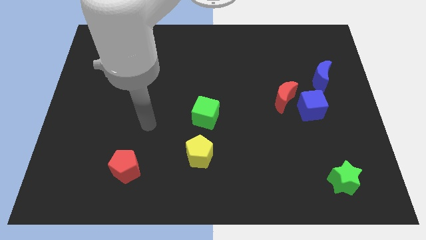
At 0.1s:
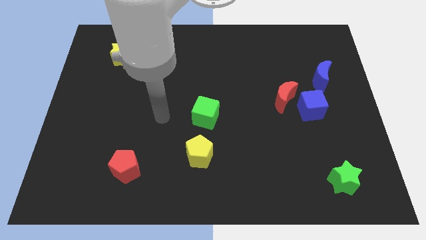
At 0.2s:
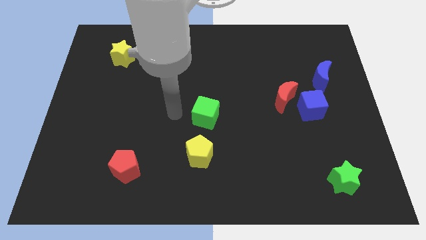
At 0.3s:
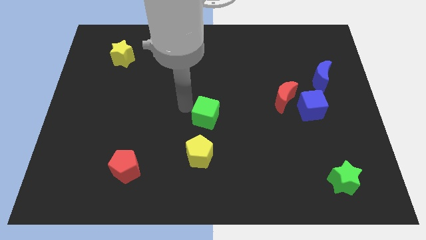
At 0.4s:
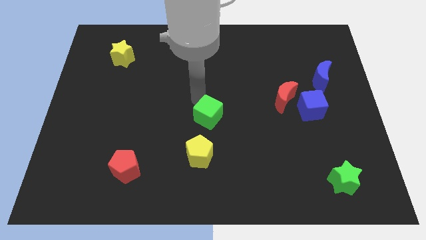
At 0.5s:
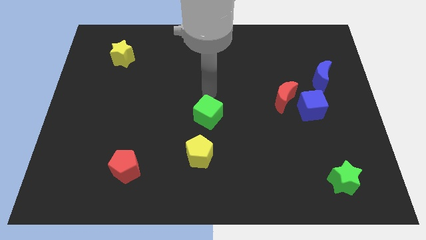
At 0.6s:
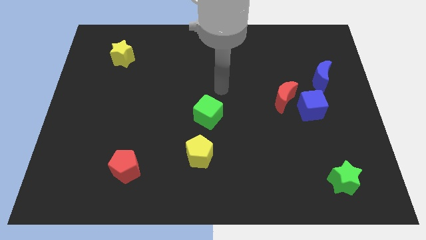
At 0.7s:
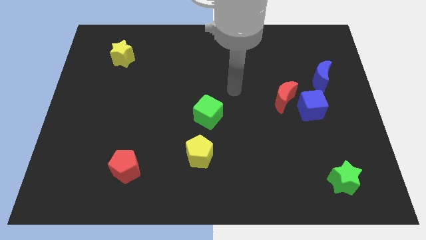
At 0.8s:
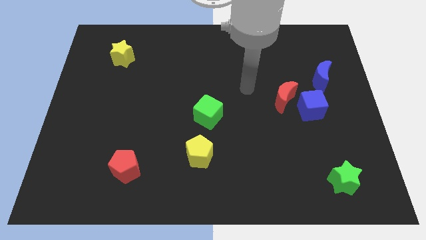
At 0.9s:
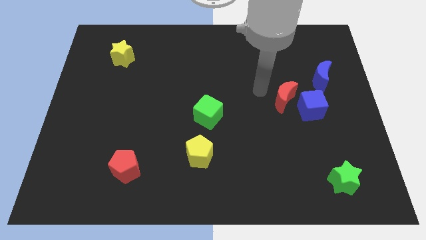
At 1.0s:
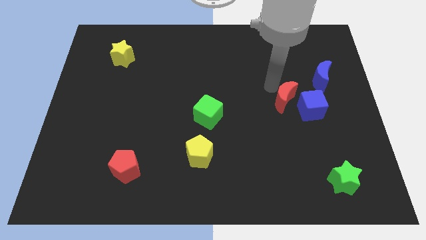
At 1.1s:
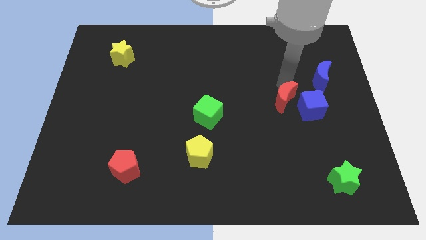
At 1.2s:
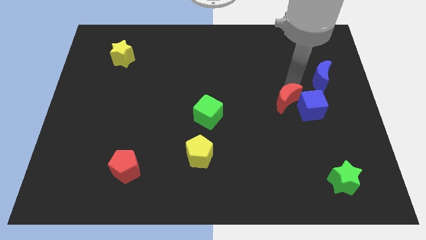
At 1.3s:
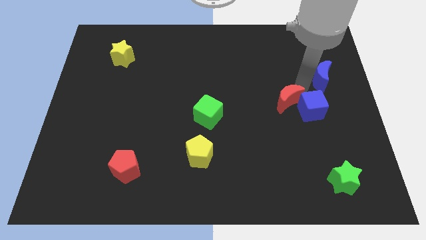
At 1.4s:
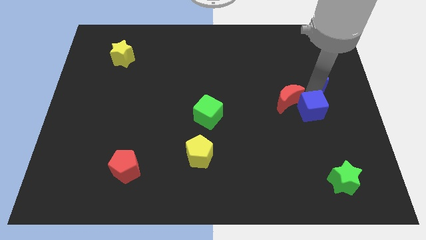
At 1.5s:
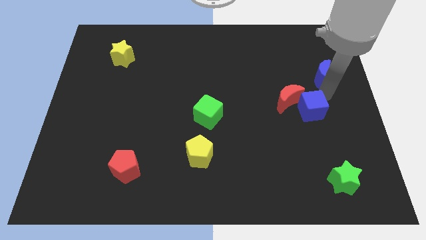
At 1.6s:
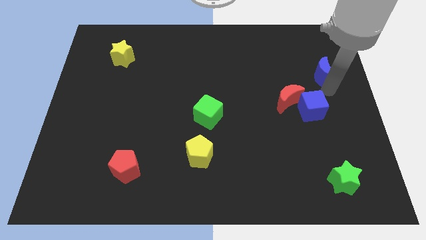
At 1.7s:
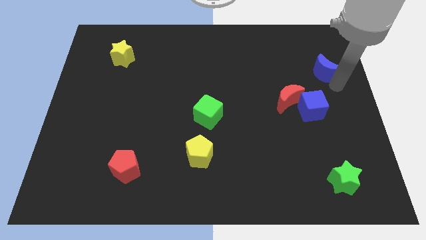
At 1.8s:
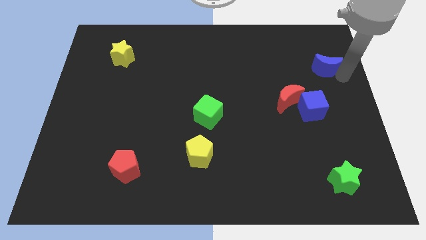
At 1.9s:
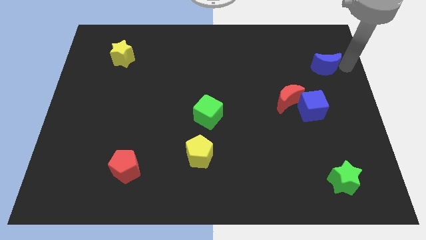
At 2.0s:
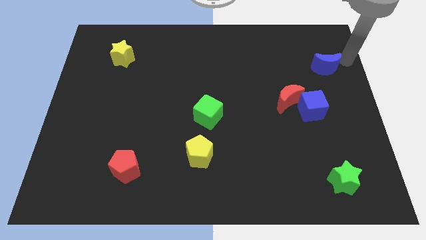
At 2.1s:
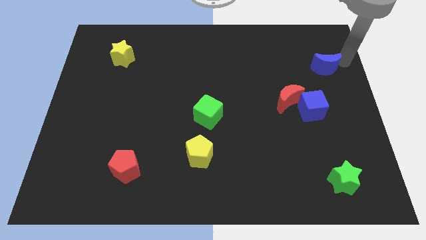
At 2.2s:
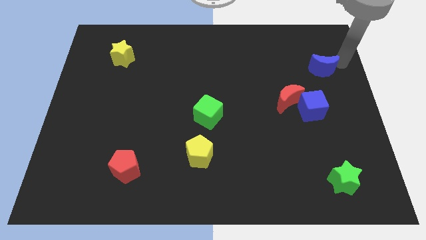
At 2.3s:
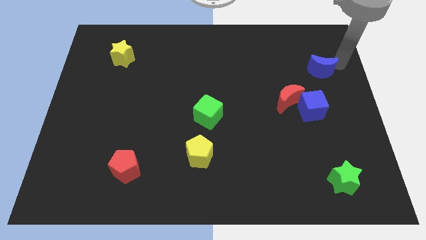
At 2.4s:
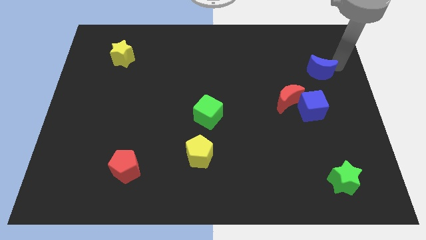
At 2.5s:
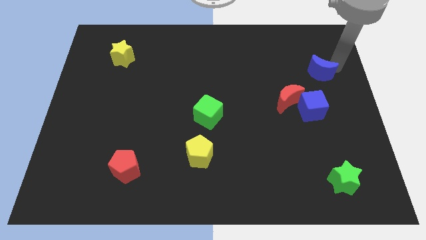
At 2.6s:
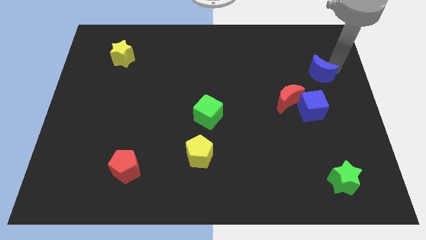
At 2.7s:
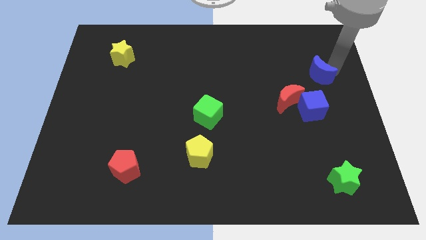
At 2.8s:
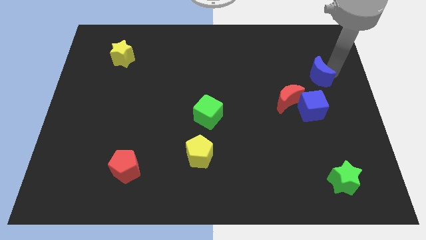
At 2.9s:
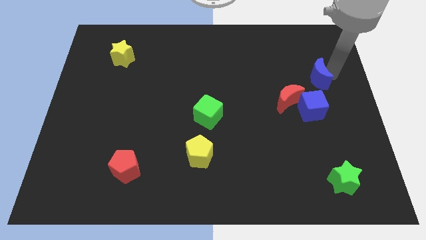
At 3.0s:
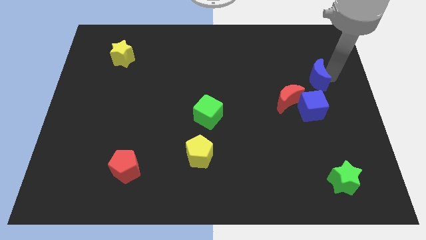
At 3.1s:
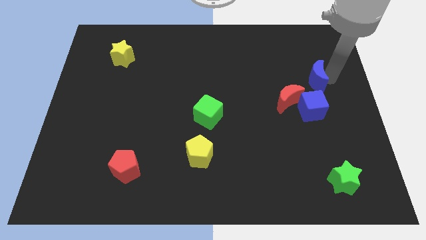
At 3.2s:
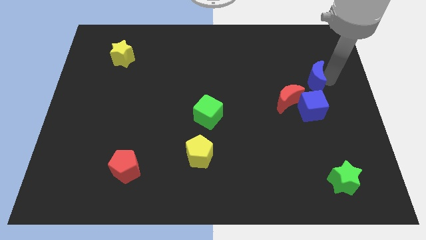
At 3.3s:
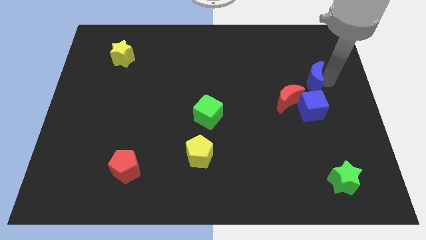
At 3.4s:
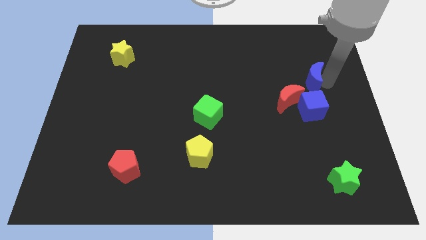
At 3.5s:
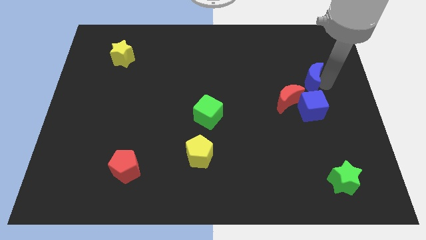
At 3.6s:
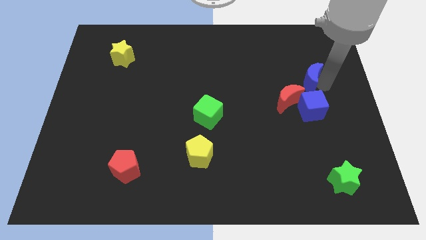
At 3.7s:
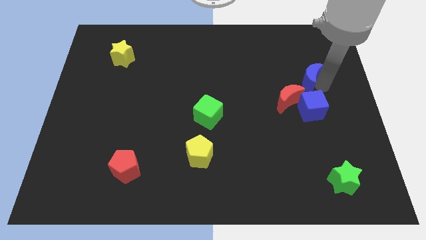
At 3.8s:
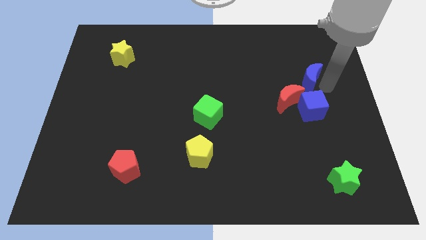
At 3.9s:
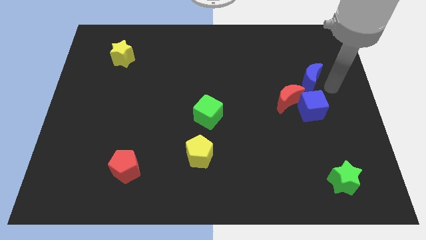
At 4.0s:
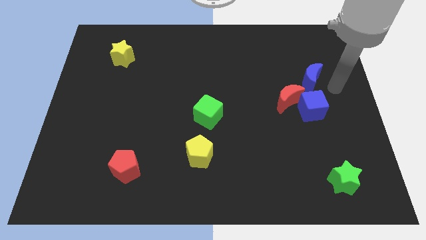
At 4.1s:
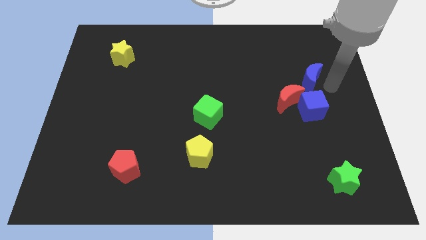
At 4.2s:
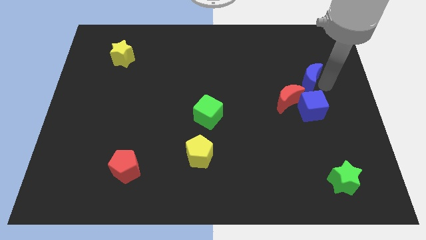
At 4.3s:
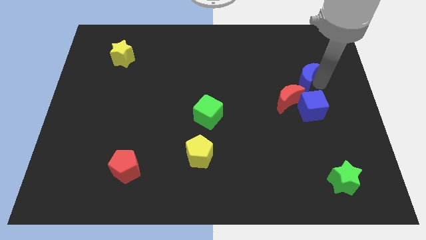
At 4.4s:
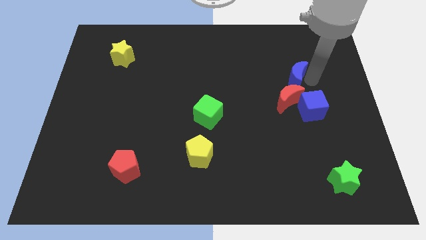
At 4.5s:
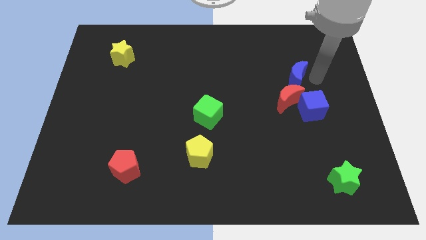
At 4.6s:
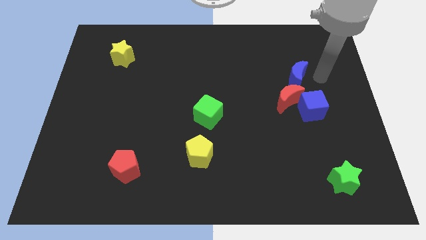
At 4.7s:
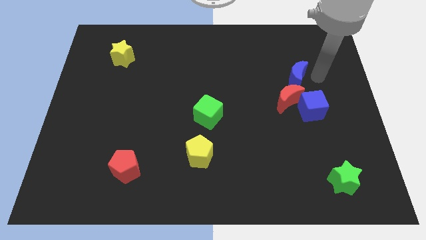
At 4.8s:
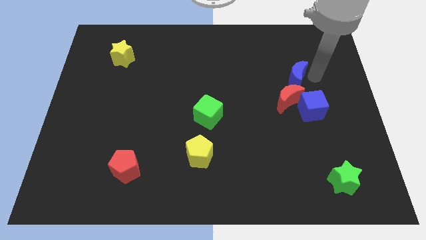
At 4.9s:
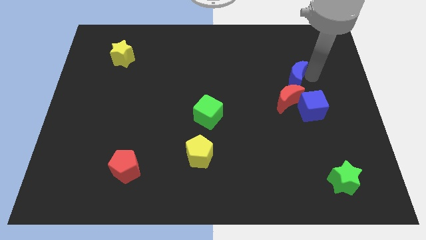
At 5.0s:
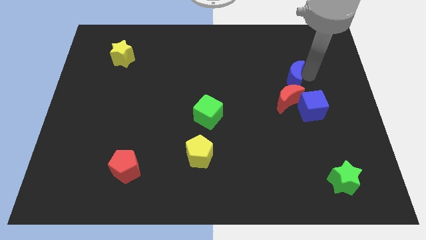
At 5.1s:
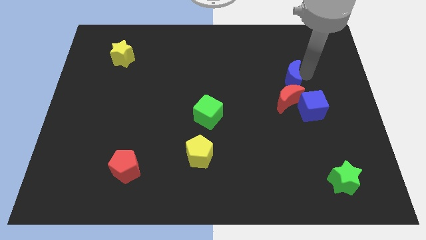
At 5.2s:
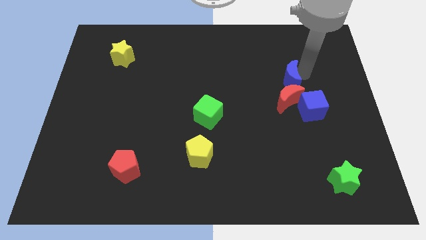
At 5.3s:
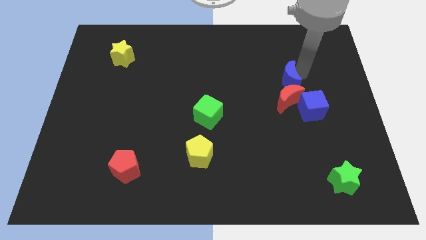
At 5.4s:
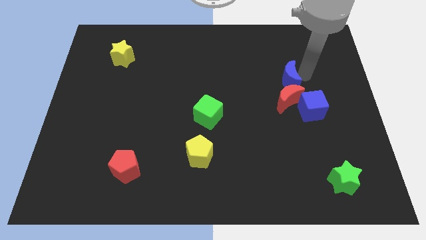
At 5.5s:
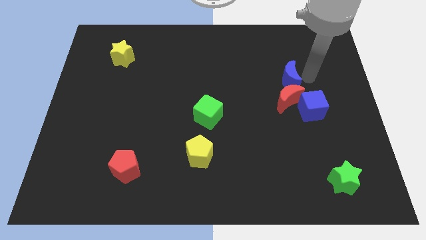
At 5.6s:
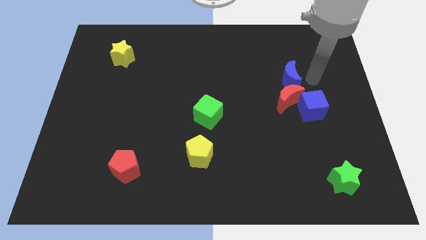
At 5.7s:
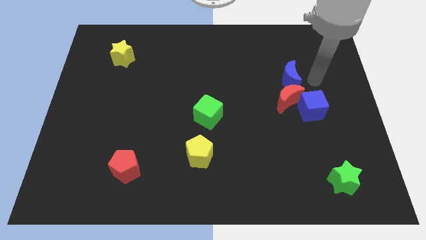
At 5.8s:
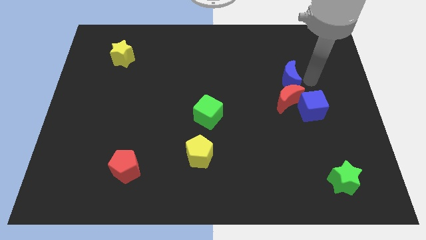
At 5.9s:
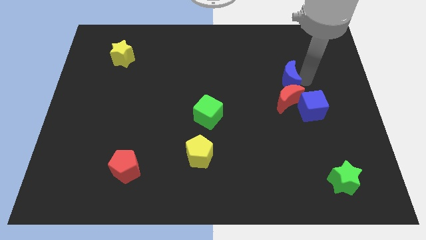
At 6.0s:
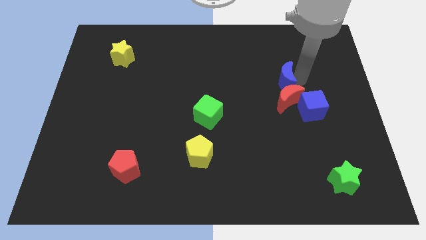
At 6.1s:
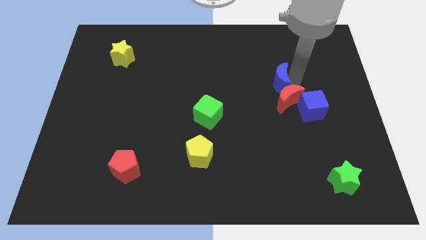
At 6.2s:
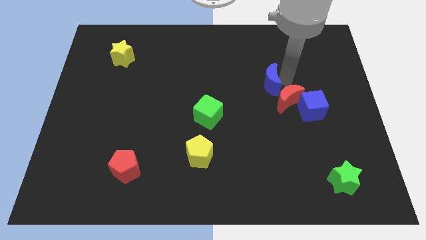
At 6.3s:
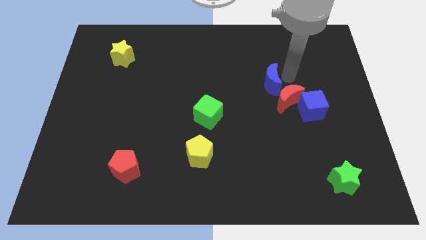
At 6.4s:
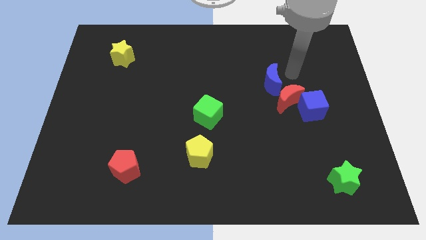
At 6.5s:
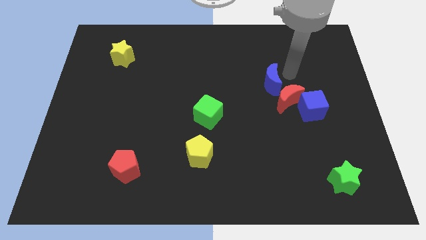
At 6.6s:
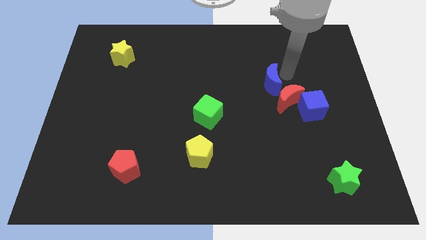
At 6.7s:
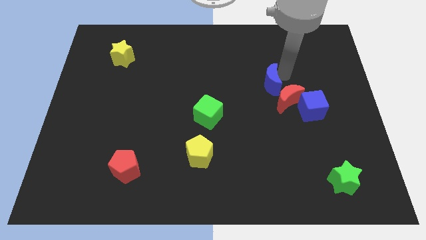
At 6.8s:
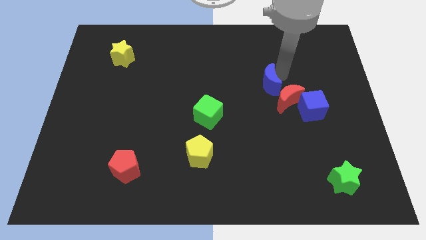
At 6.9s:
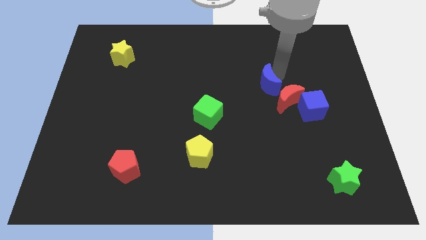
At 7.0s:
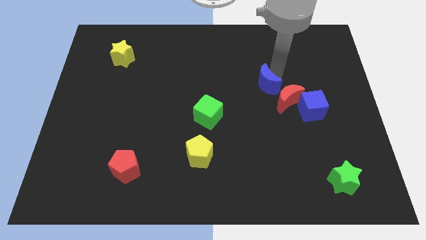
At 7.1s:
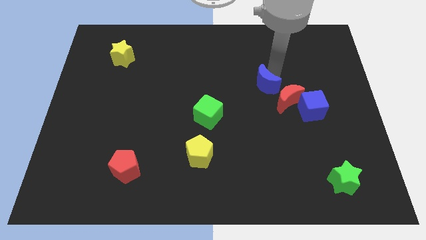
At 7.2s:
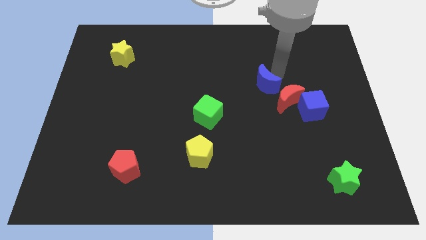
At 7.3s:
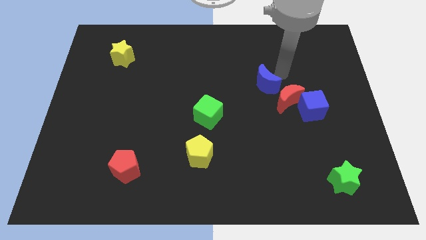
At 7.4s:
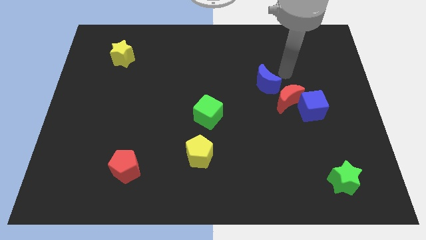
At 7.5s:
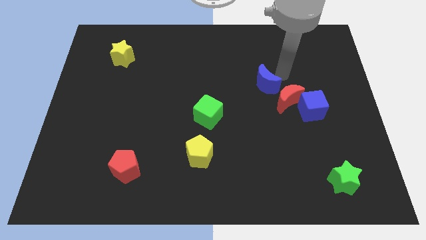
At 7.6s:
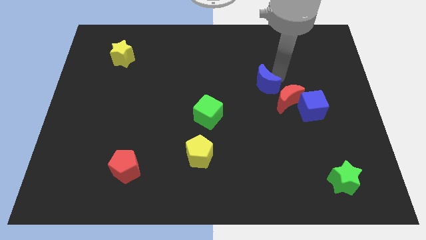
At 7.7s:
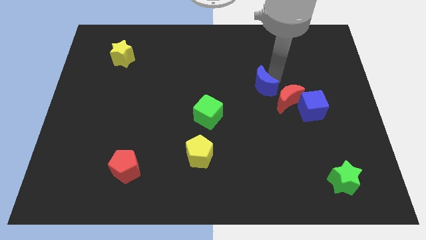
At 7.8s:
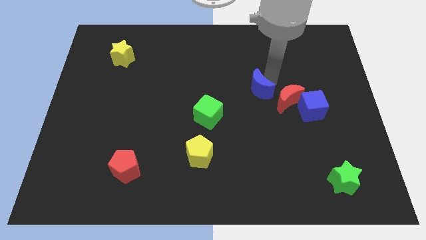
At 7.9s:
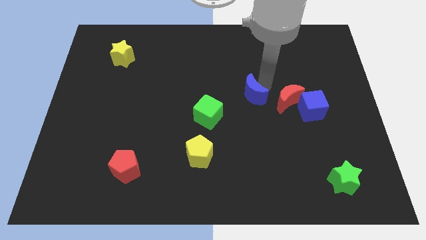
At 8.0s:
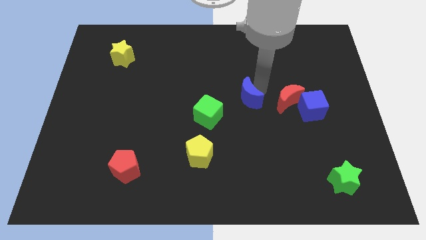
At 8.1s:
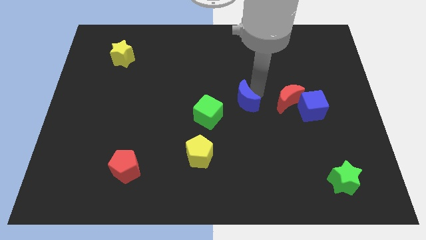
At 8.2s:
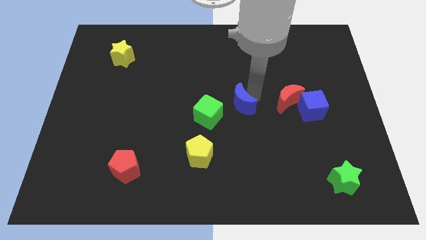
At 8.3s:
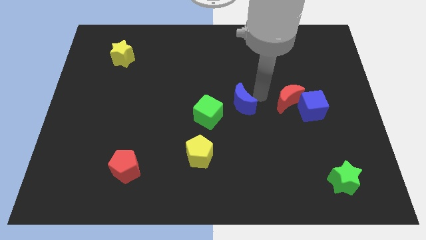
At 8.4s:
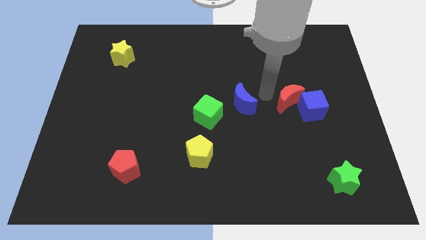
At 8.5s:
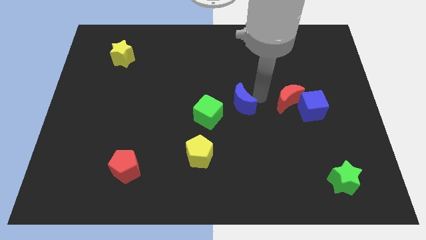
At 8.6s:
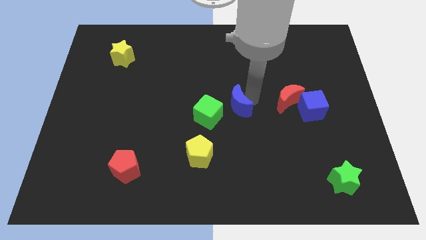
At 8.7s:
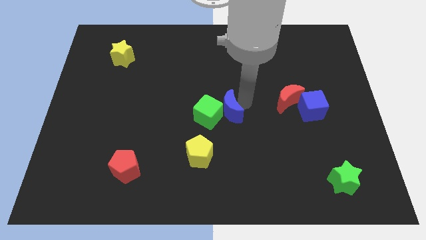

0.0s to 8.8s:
push the blue moon next to the green cube
